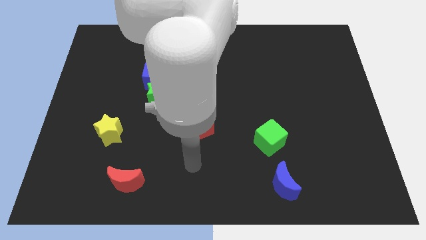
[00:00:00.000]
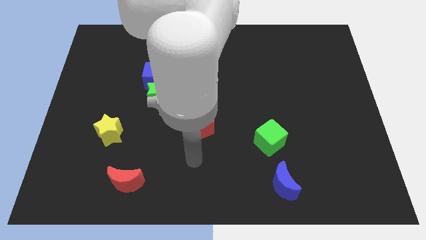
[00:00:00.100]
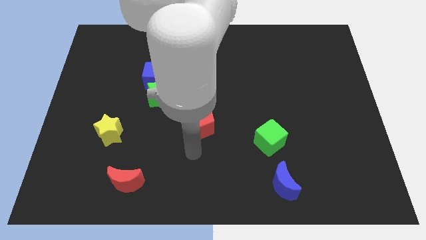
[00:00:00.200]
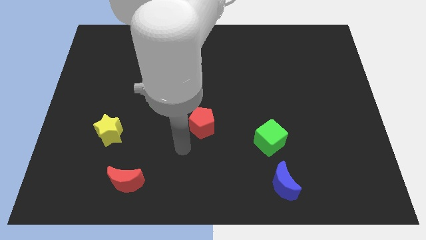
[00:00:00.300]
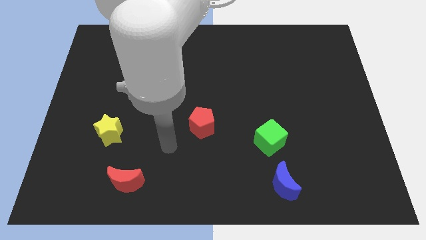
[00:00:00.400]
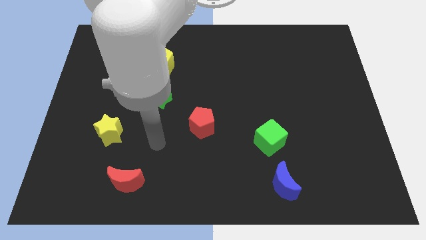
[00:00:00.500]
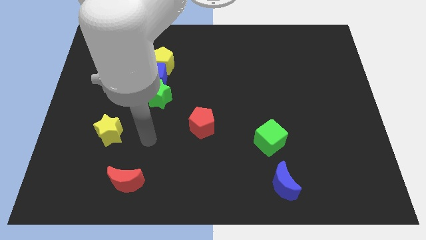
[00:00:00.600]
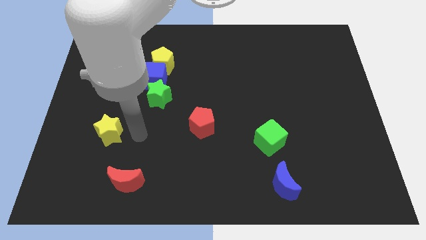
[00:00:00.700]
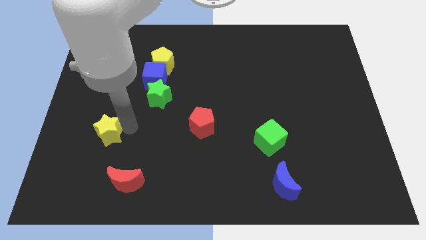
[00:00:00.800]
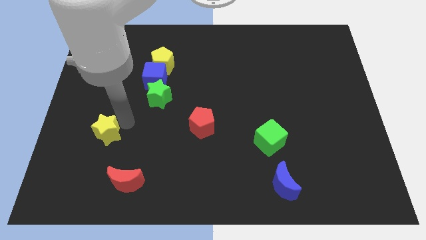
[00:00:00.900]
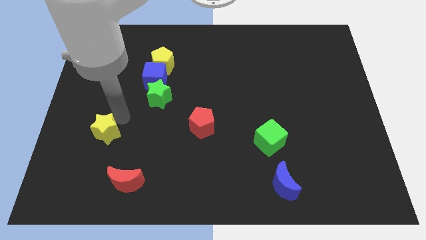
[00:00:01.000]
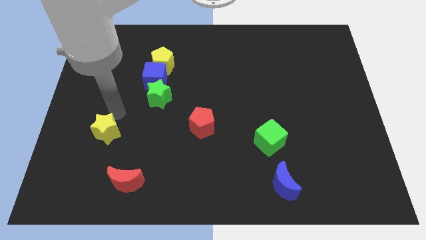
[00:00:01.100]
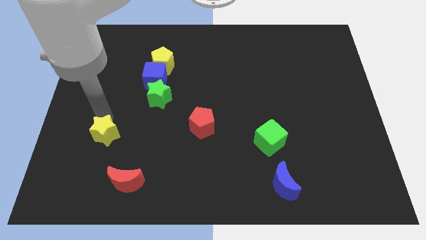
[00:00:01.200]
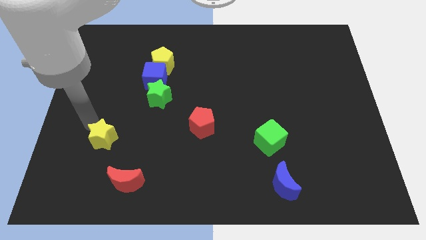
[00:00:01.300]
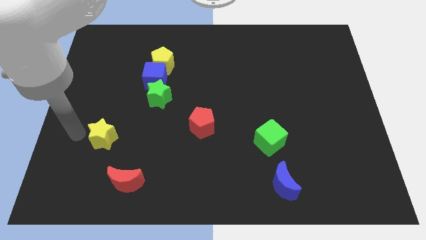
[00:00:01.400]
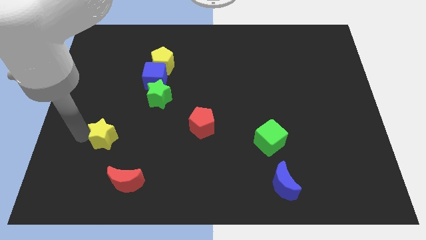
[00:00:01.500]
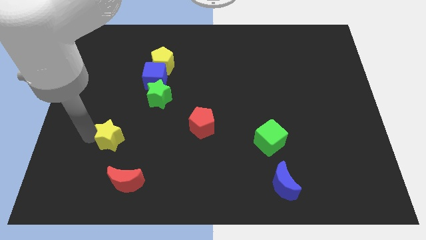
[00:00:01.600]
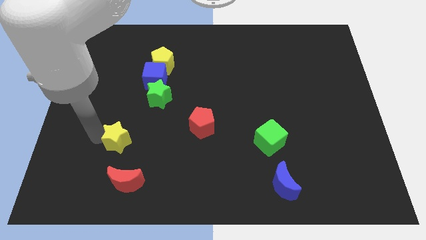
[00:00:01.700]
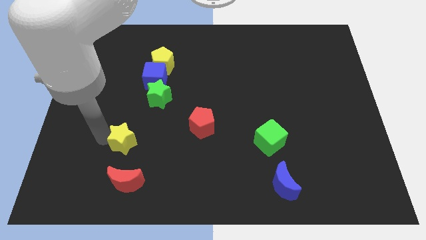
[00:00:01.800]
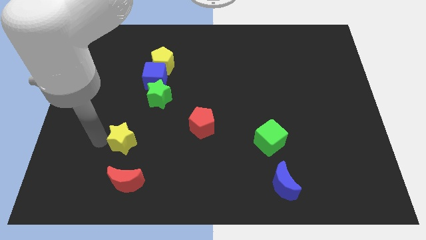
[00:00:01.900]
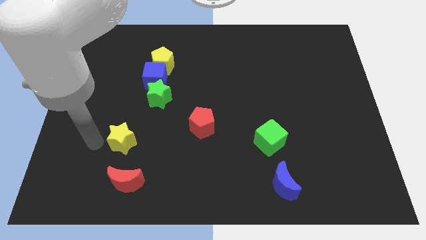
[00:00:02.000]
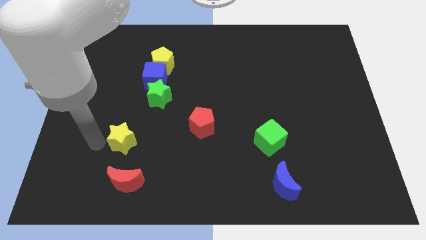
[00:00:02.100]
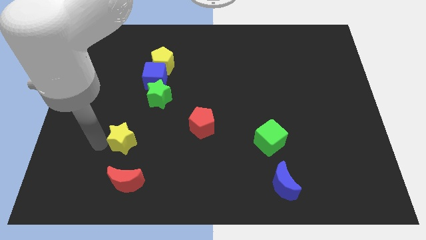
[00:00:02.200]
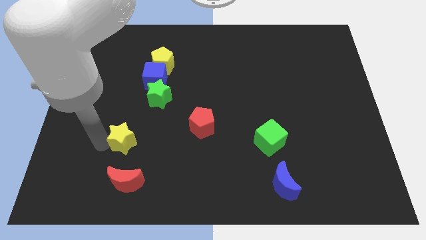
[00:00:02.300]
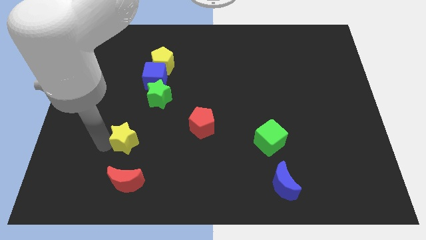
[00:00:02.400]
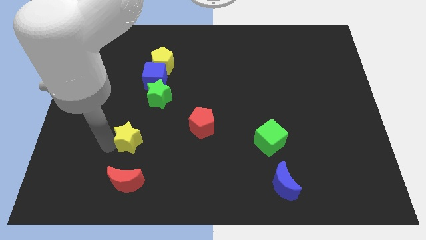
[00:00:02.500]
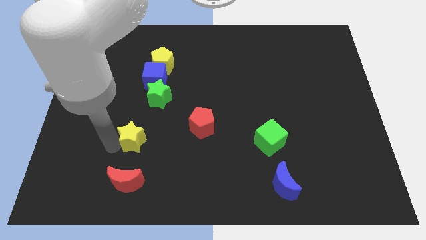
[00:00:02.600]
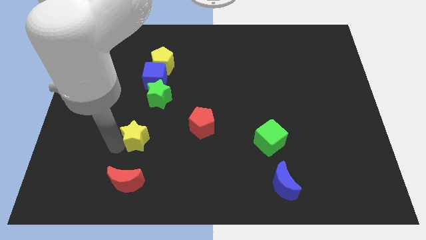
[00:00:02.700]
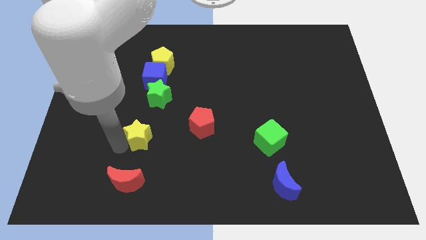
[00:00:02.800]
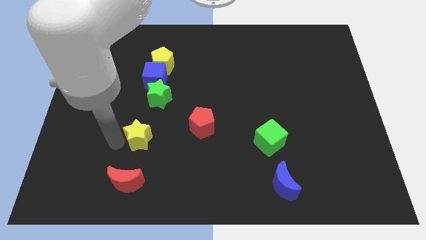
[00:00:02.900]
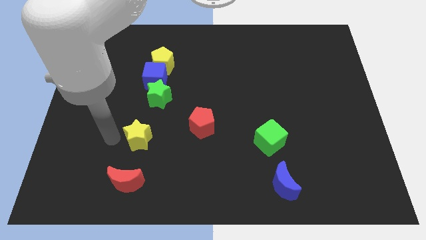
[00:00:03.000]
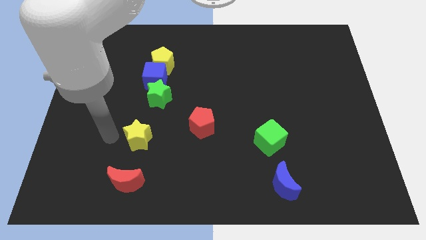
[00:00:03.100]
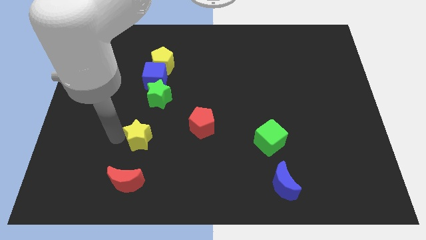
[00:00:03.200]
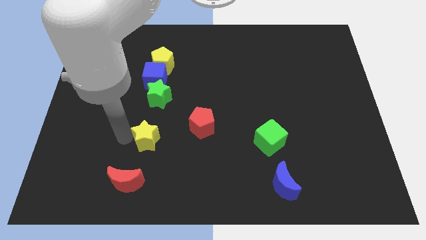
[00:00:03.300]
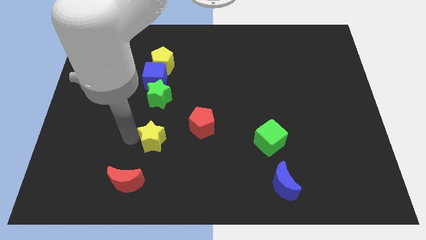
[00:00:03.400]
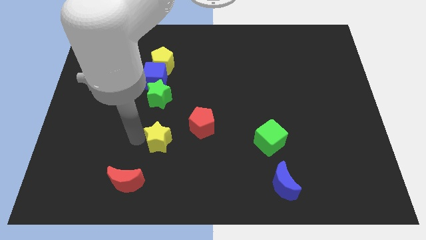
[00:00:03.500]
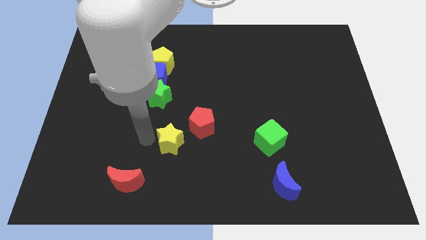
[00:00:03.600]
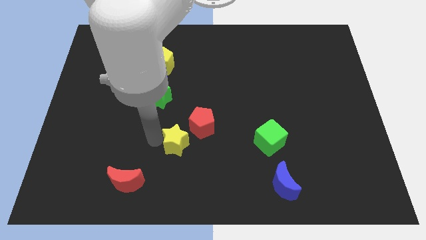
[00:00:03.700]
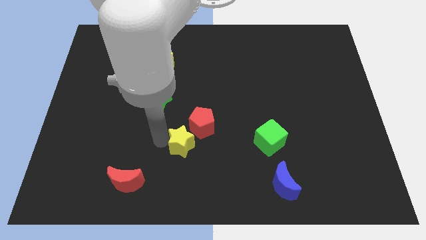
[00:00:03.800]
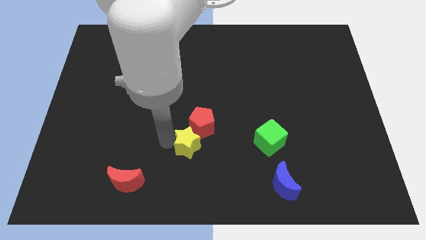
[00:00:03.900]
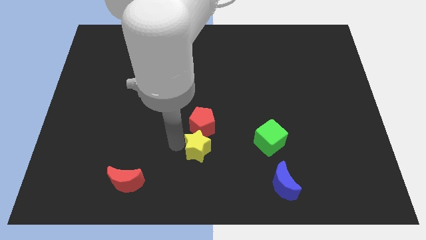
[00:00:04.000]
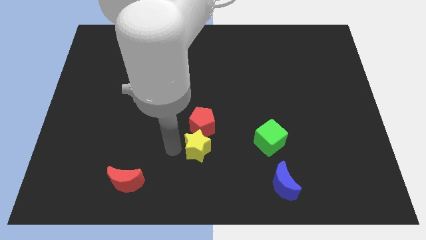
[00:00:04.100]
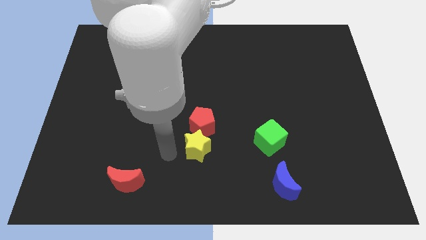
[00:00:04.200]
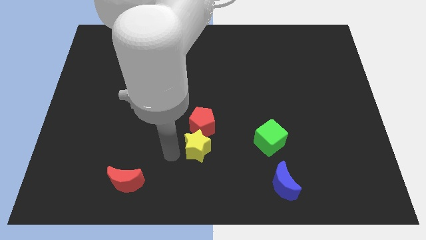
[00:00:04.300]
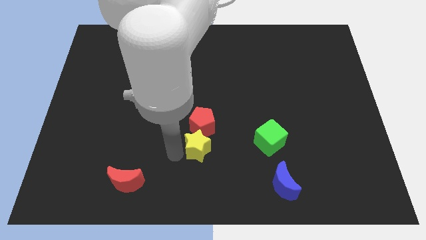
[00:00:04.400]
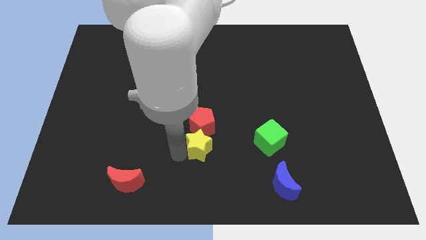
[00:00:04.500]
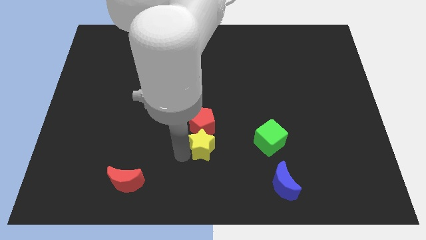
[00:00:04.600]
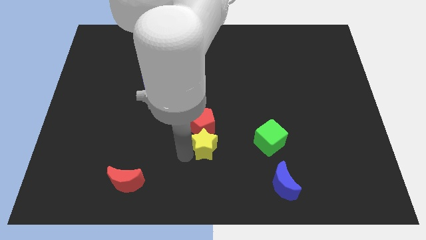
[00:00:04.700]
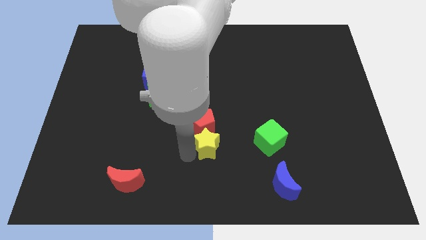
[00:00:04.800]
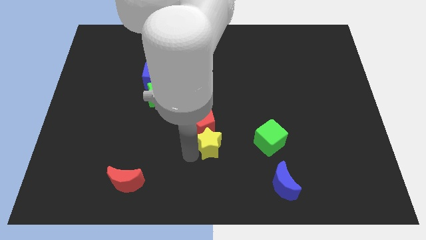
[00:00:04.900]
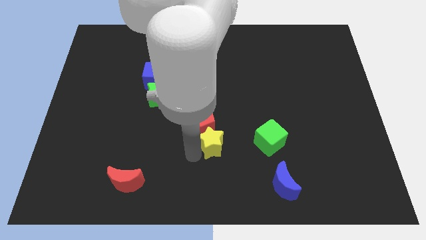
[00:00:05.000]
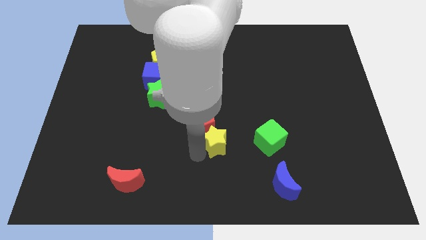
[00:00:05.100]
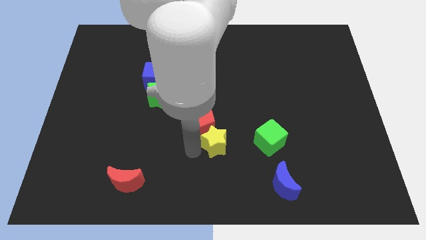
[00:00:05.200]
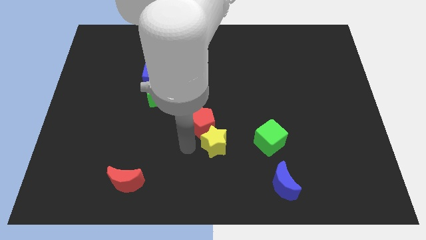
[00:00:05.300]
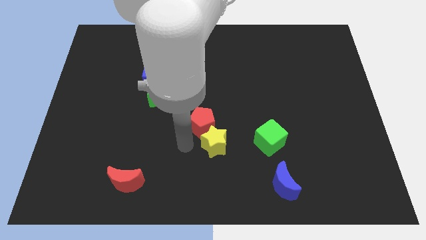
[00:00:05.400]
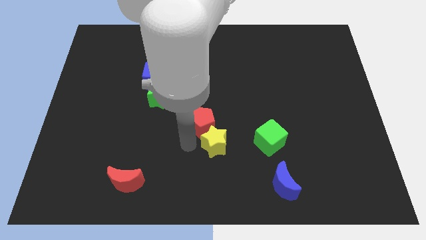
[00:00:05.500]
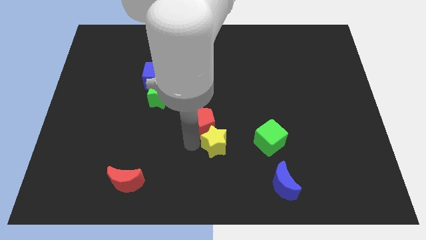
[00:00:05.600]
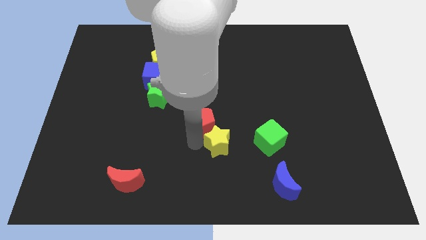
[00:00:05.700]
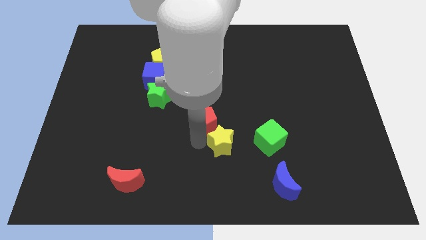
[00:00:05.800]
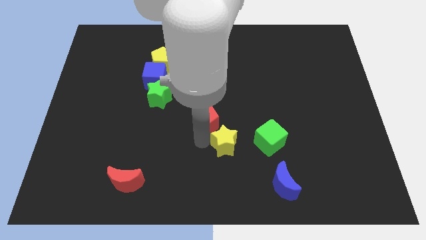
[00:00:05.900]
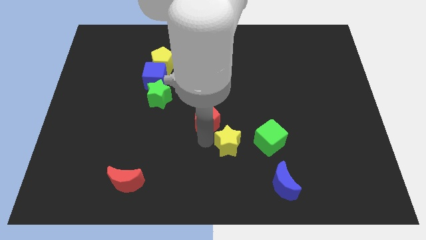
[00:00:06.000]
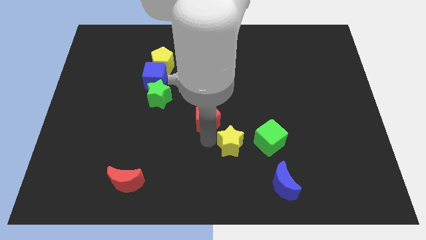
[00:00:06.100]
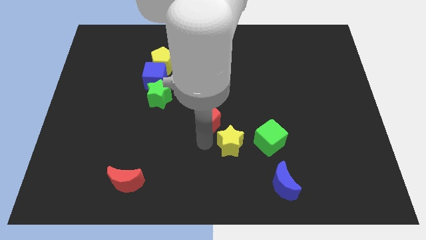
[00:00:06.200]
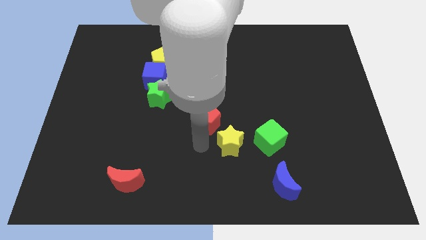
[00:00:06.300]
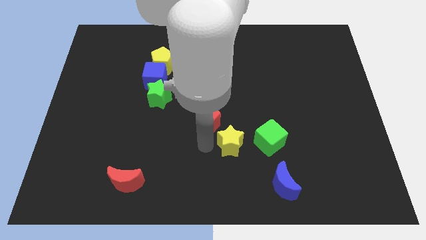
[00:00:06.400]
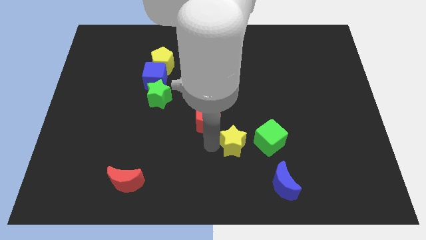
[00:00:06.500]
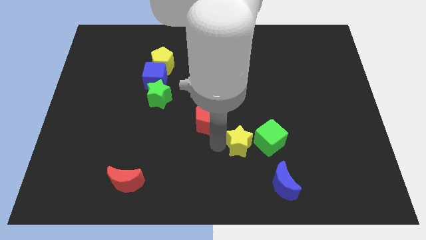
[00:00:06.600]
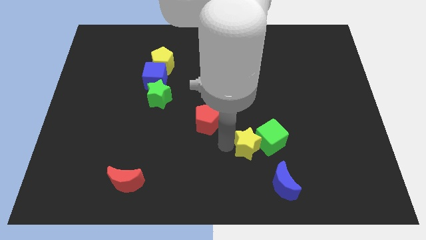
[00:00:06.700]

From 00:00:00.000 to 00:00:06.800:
slide the yellow star to the green cube

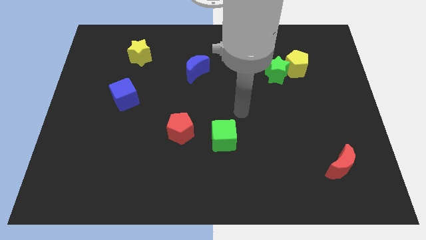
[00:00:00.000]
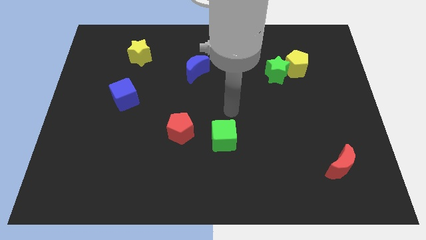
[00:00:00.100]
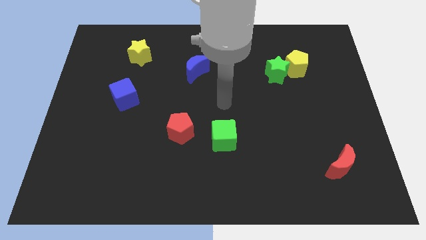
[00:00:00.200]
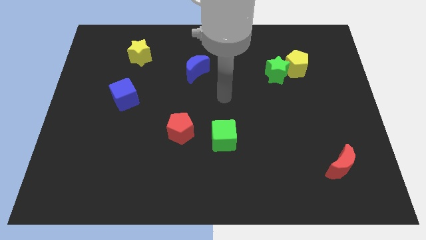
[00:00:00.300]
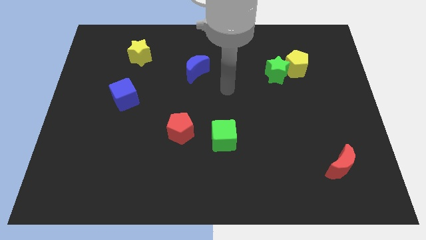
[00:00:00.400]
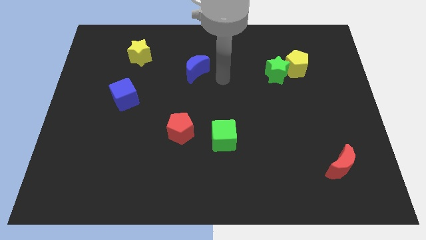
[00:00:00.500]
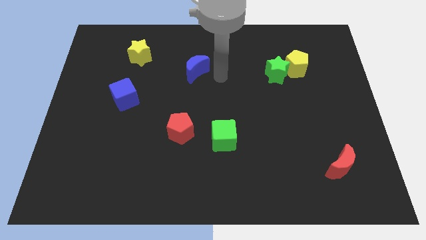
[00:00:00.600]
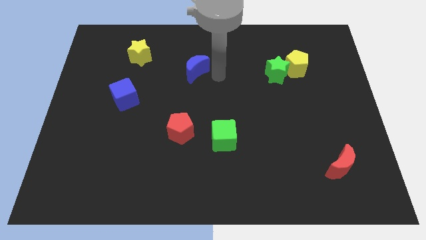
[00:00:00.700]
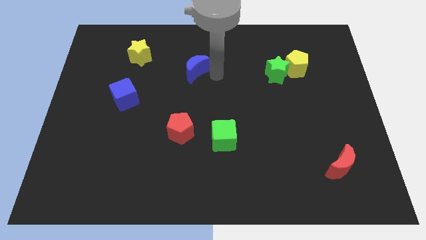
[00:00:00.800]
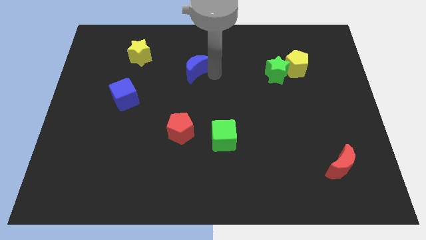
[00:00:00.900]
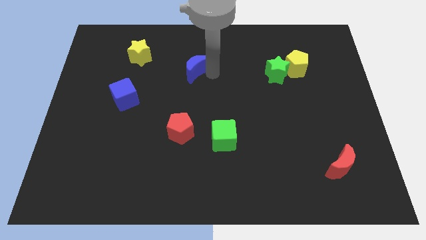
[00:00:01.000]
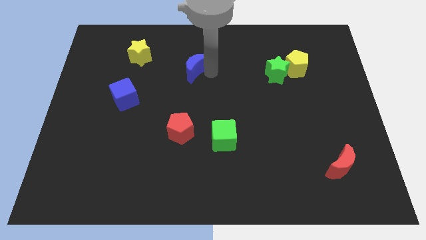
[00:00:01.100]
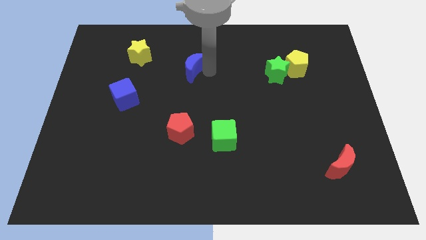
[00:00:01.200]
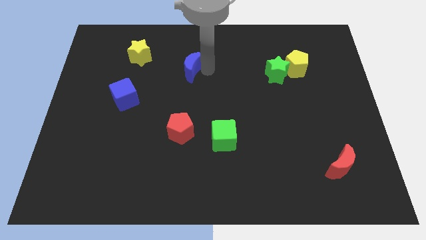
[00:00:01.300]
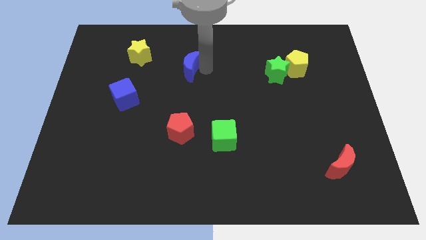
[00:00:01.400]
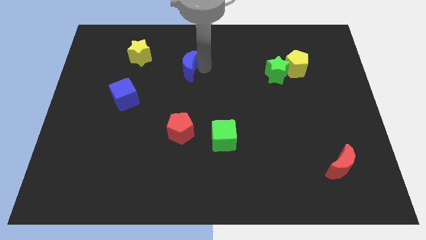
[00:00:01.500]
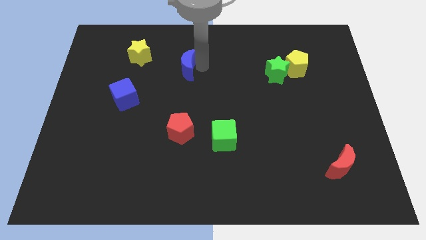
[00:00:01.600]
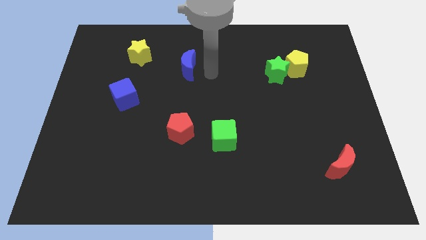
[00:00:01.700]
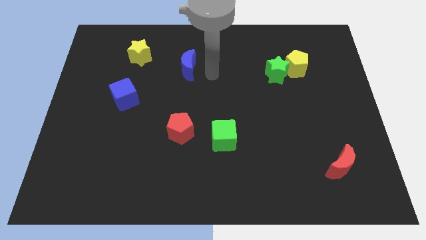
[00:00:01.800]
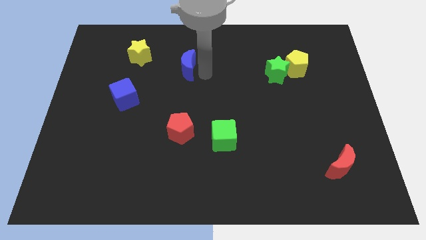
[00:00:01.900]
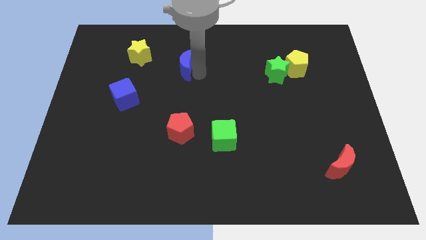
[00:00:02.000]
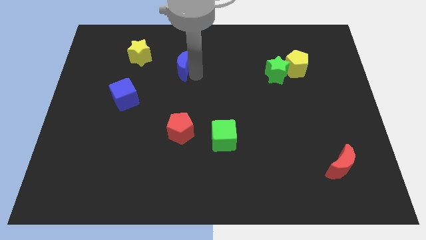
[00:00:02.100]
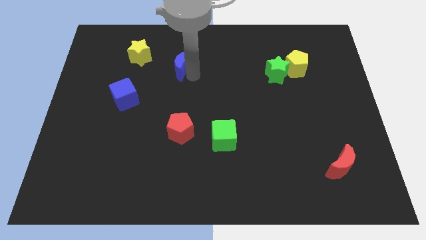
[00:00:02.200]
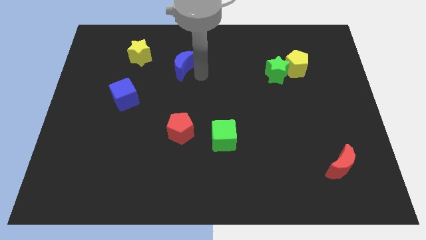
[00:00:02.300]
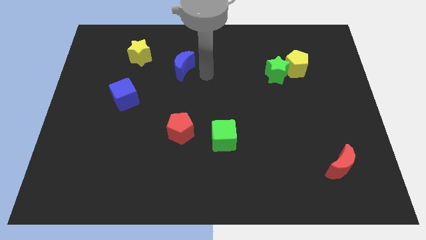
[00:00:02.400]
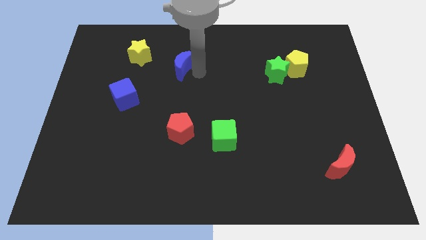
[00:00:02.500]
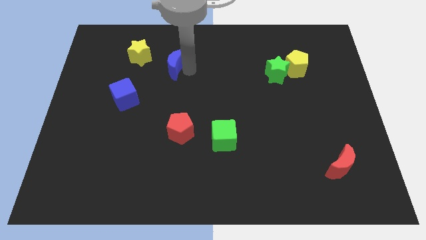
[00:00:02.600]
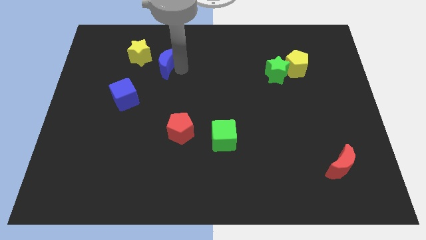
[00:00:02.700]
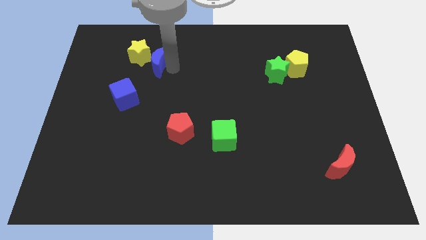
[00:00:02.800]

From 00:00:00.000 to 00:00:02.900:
move the blue moon close to the yellow star
